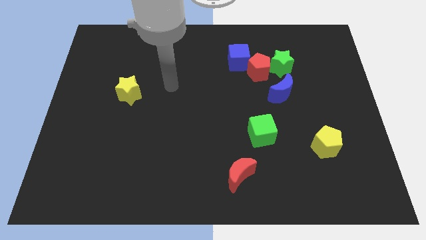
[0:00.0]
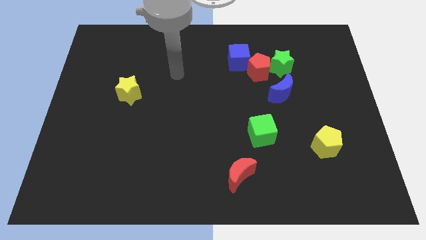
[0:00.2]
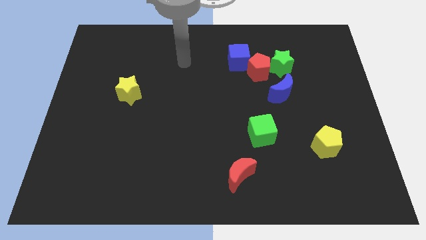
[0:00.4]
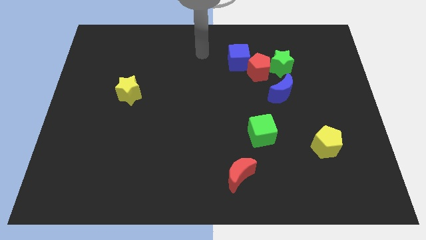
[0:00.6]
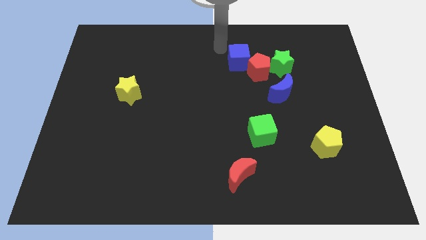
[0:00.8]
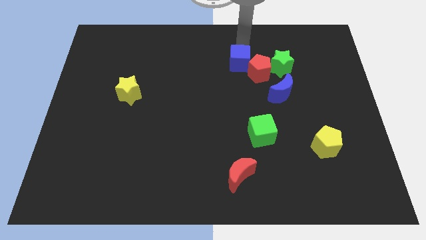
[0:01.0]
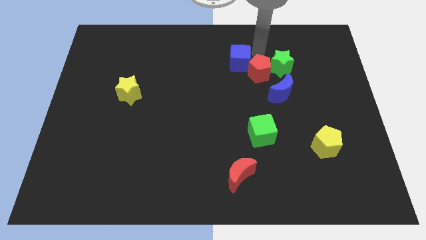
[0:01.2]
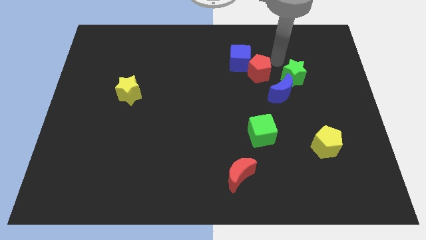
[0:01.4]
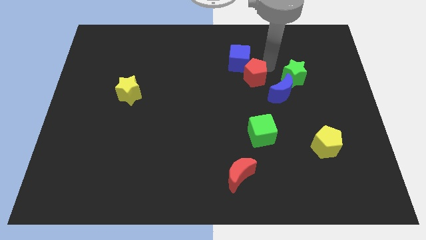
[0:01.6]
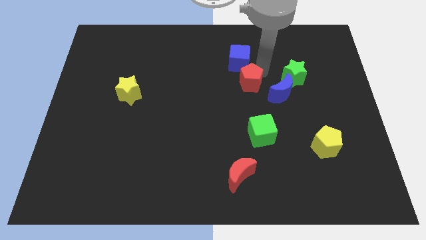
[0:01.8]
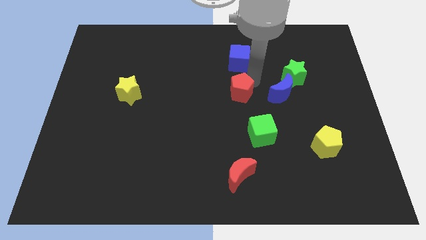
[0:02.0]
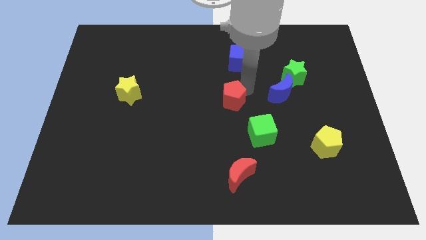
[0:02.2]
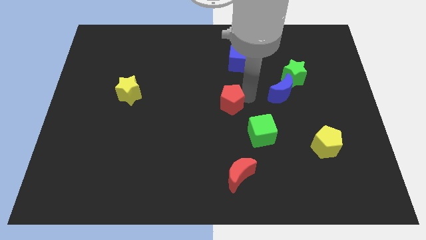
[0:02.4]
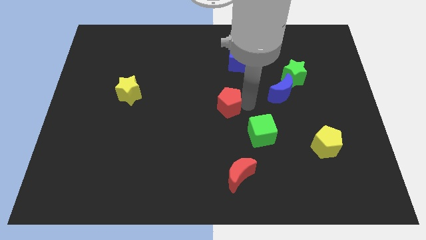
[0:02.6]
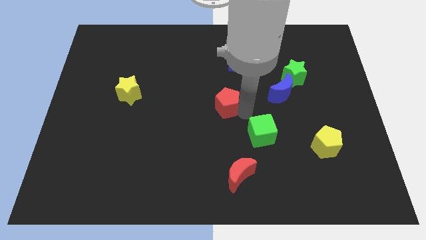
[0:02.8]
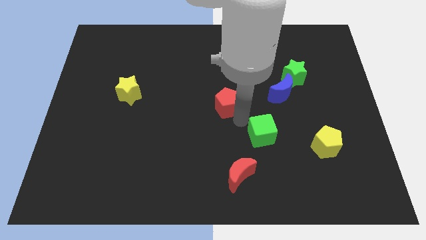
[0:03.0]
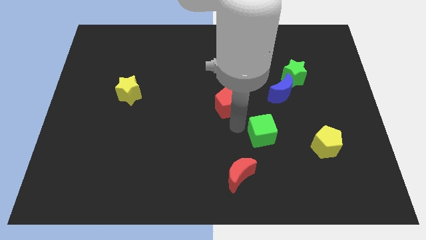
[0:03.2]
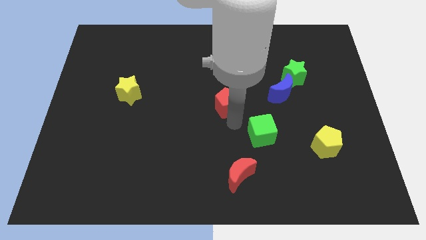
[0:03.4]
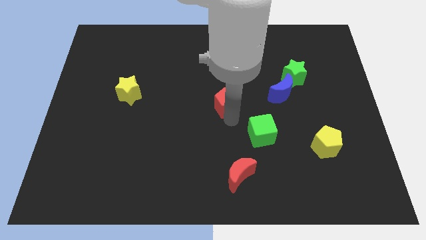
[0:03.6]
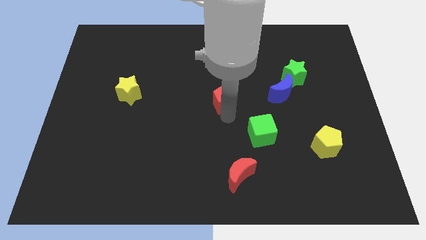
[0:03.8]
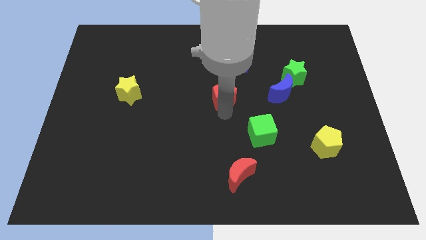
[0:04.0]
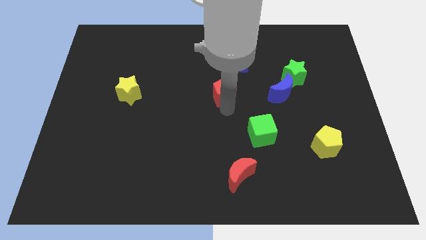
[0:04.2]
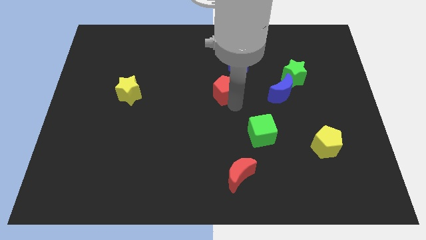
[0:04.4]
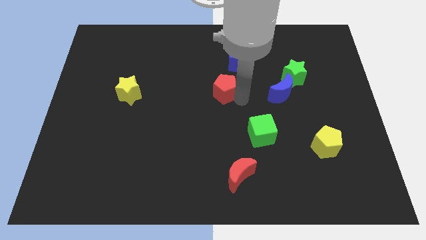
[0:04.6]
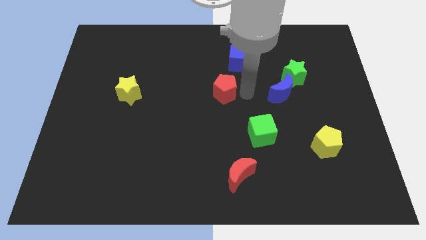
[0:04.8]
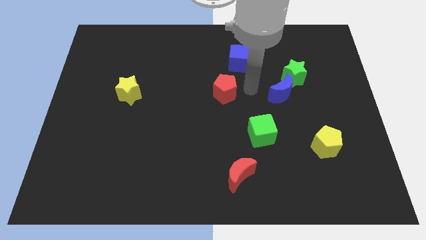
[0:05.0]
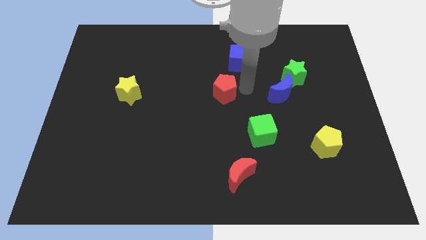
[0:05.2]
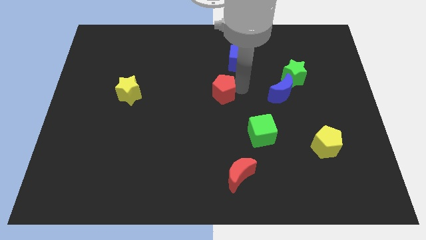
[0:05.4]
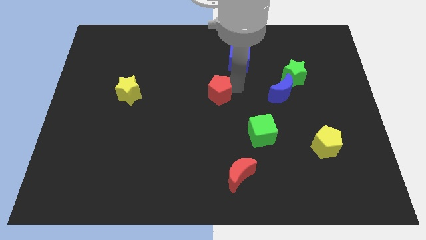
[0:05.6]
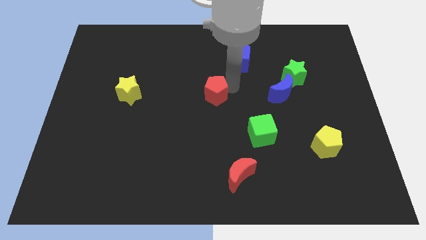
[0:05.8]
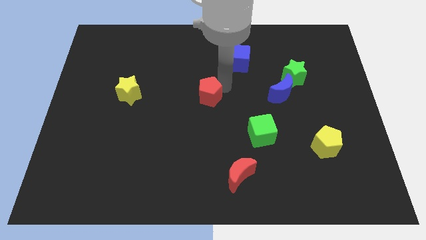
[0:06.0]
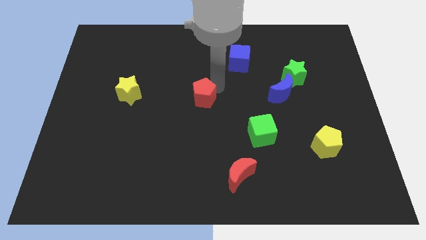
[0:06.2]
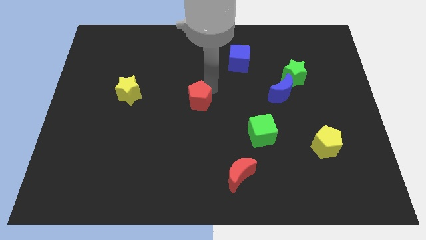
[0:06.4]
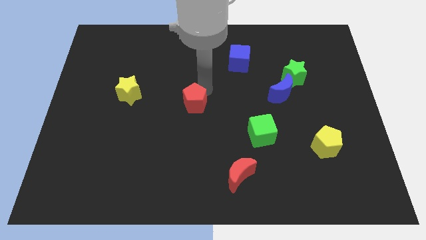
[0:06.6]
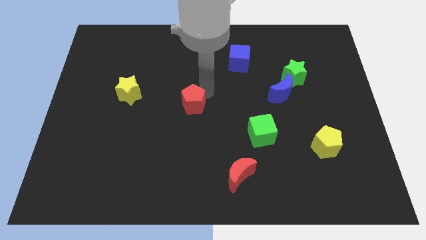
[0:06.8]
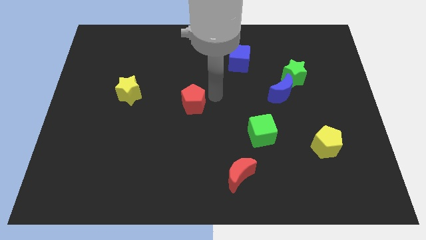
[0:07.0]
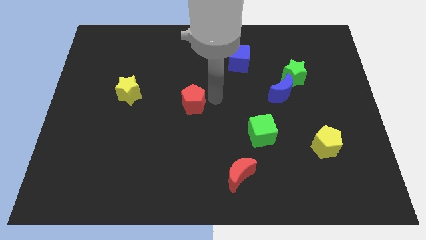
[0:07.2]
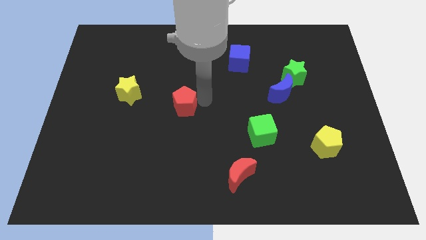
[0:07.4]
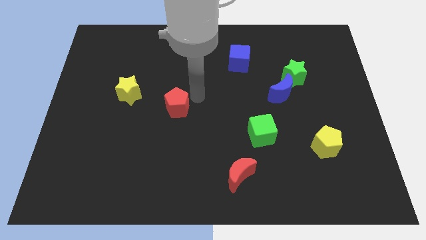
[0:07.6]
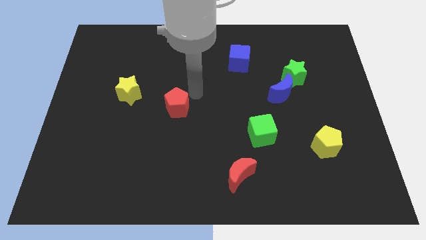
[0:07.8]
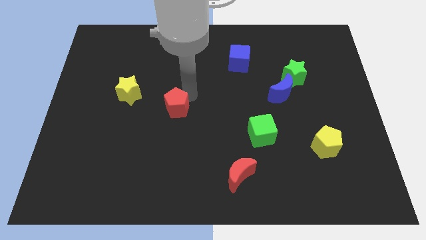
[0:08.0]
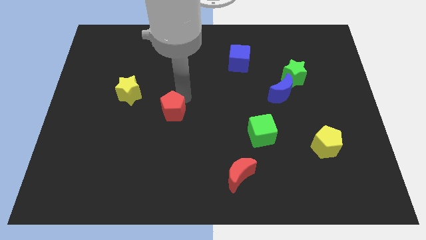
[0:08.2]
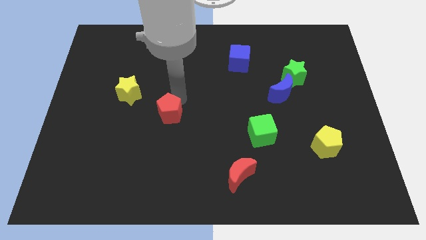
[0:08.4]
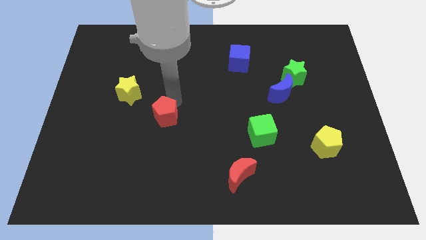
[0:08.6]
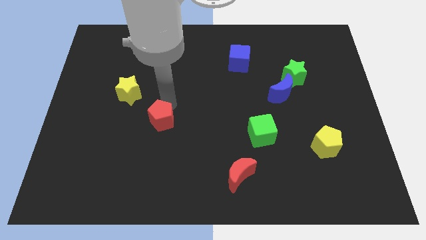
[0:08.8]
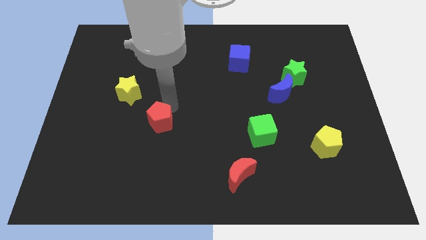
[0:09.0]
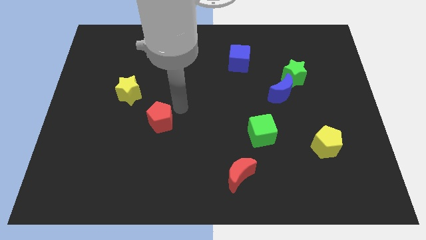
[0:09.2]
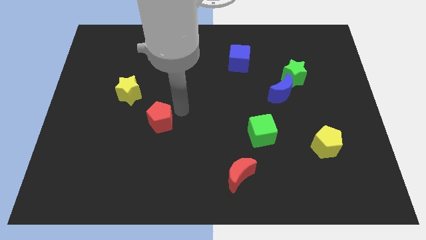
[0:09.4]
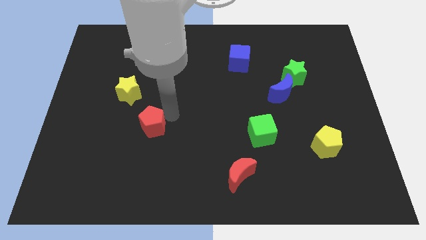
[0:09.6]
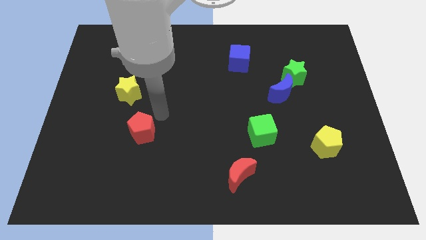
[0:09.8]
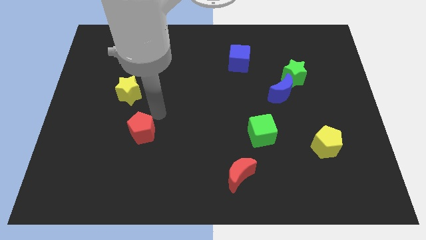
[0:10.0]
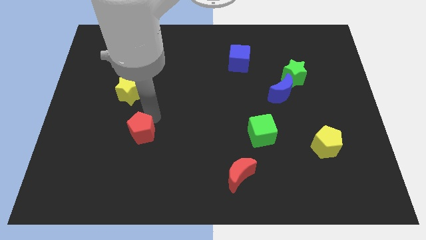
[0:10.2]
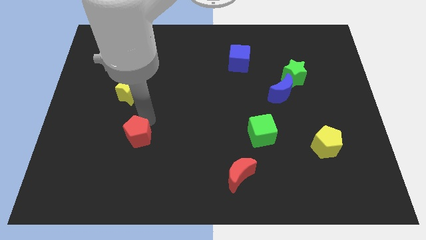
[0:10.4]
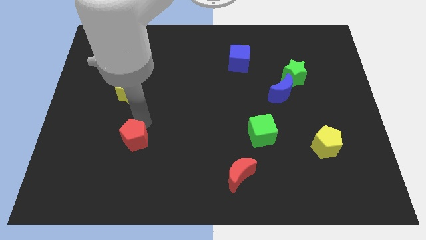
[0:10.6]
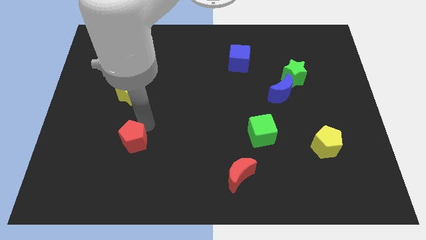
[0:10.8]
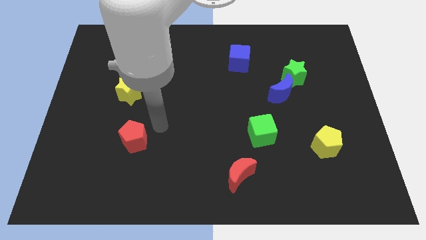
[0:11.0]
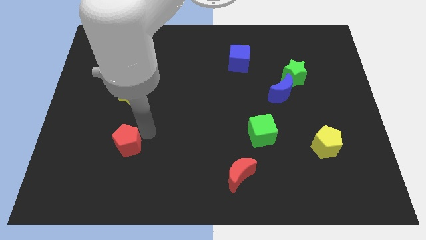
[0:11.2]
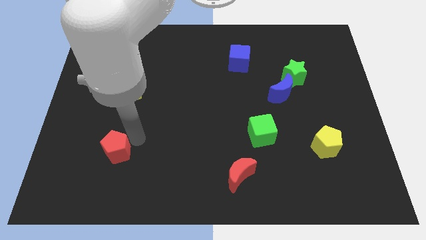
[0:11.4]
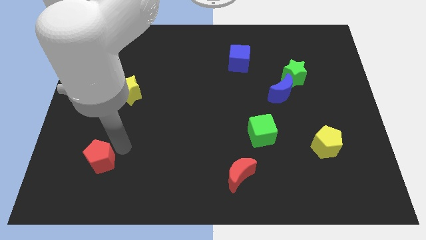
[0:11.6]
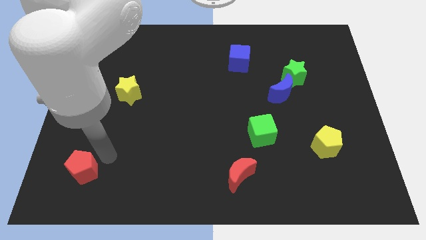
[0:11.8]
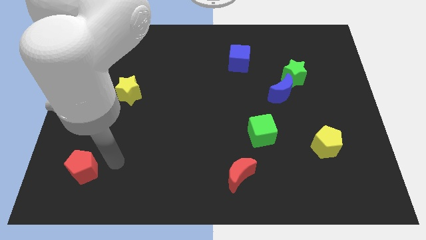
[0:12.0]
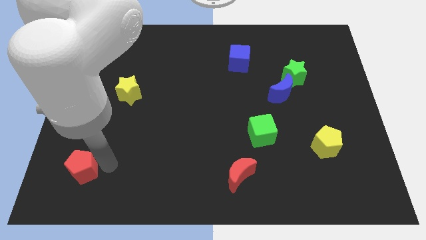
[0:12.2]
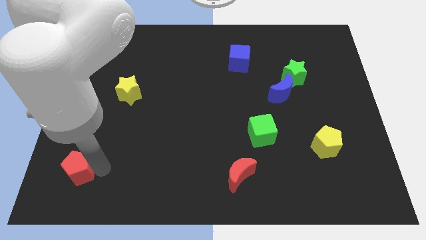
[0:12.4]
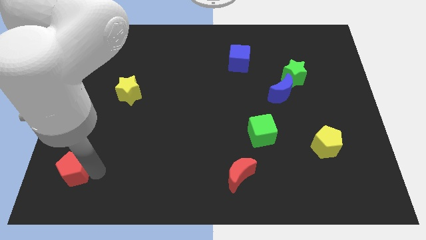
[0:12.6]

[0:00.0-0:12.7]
move the red pentagon to the bottom left of the board

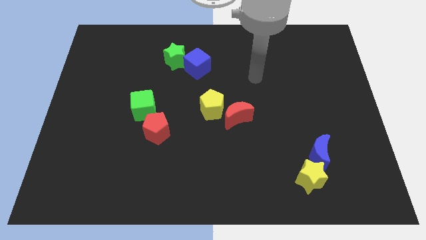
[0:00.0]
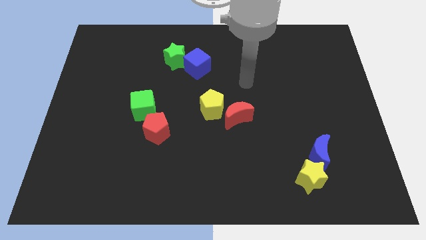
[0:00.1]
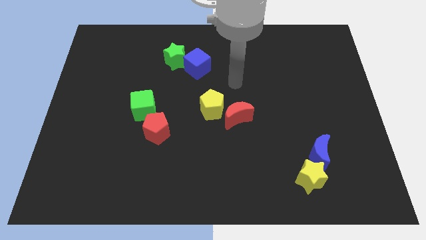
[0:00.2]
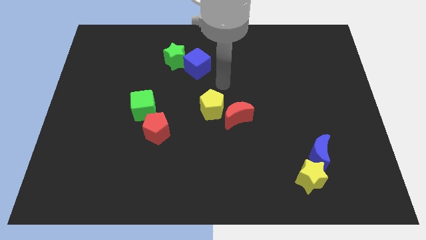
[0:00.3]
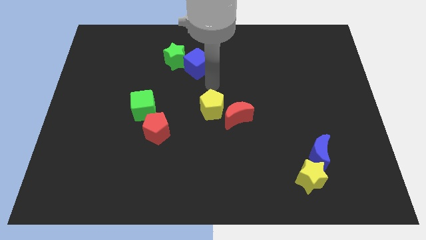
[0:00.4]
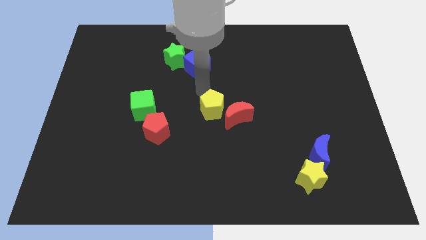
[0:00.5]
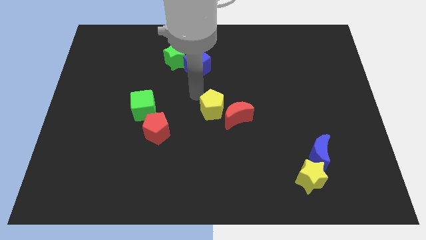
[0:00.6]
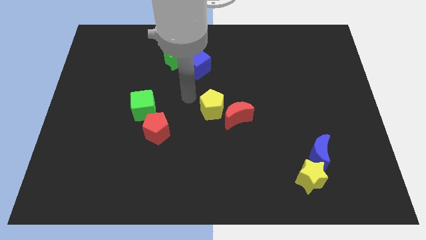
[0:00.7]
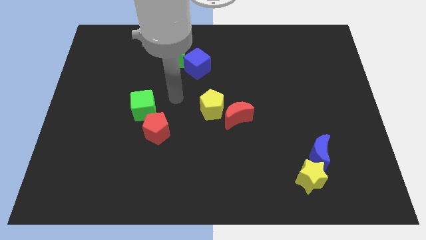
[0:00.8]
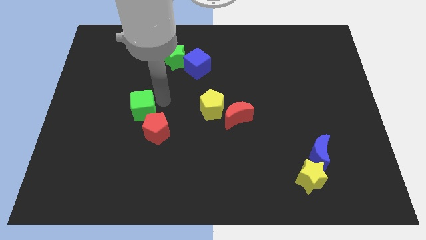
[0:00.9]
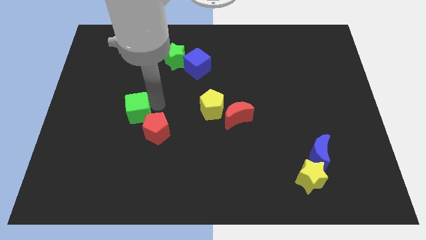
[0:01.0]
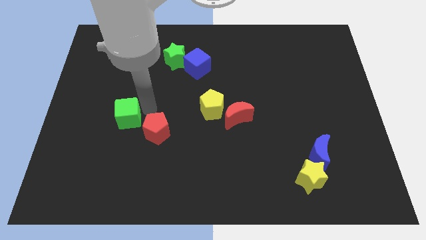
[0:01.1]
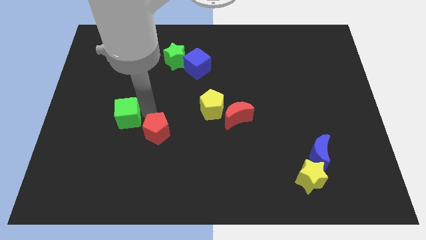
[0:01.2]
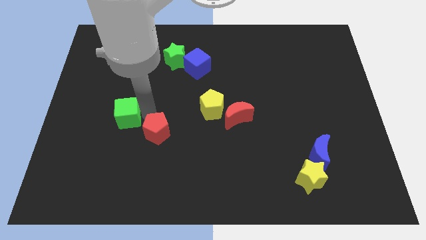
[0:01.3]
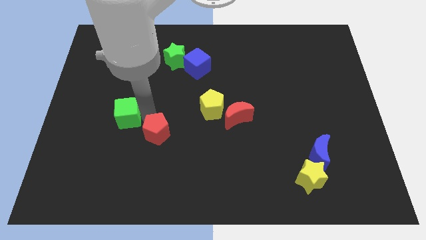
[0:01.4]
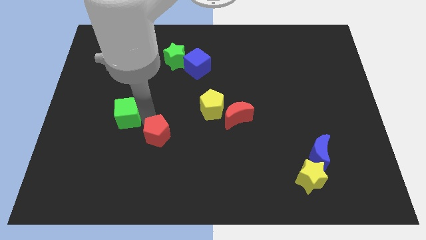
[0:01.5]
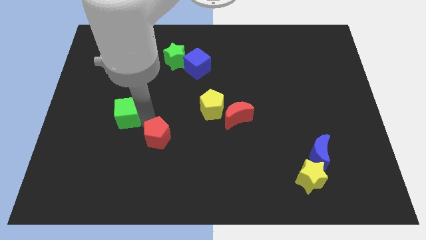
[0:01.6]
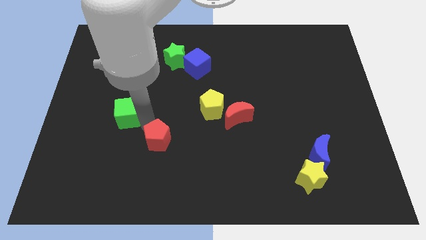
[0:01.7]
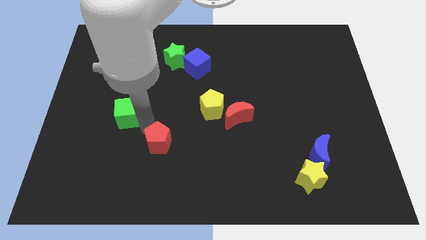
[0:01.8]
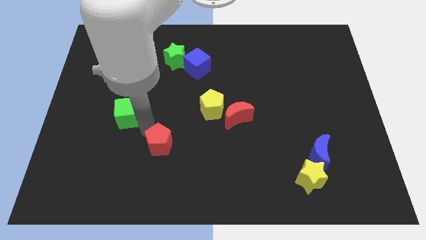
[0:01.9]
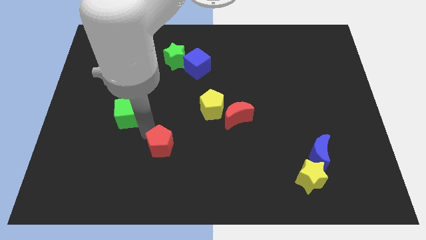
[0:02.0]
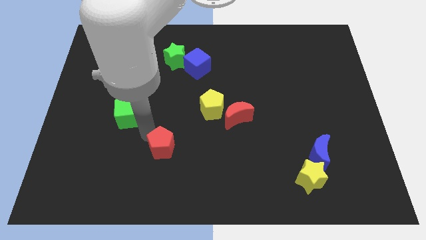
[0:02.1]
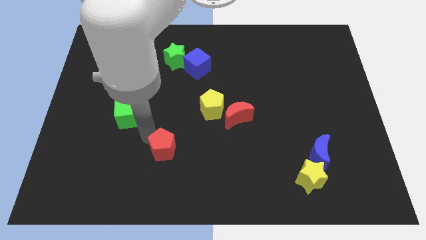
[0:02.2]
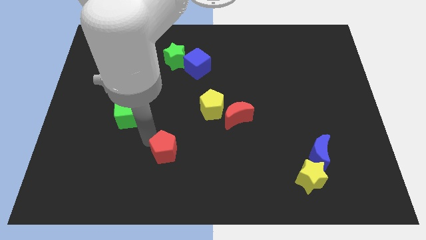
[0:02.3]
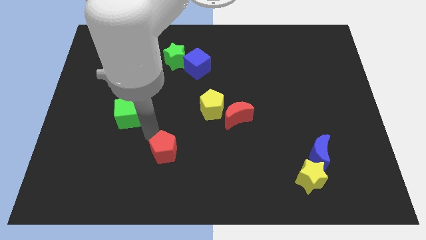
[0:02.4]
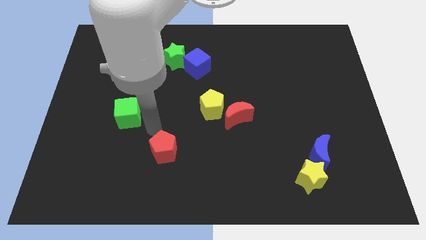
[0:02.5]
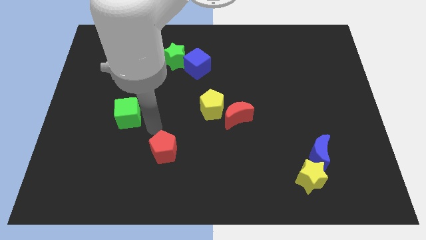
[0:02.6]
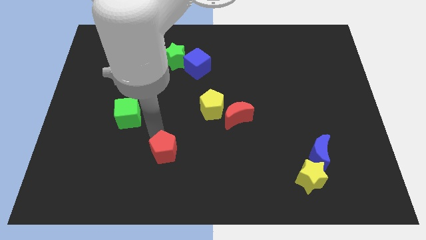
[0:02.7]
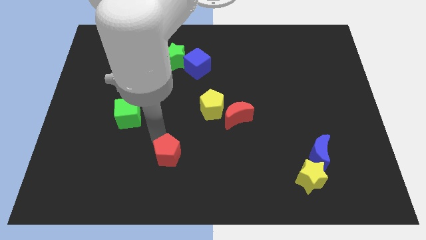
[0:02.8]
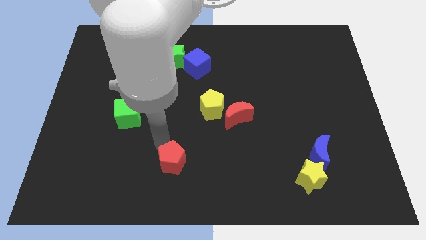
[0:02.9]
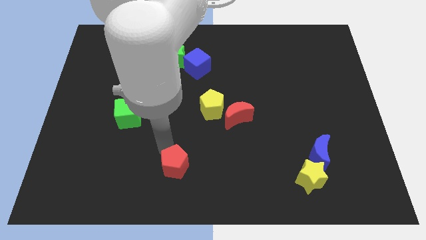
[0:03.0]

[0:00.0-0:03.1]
slide the red pentagon to the bottom
